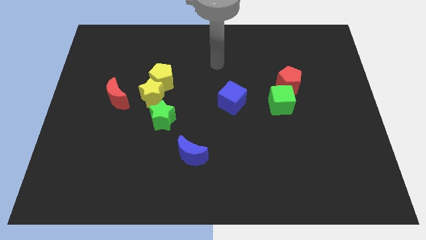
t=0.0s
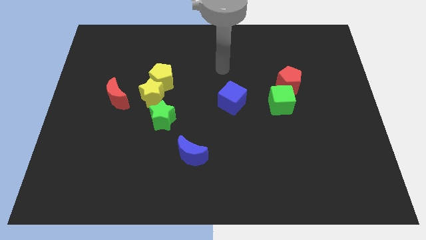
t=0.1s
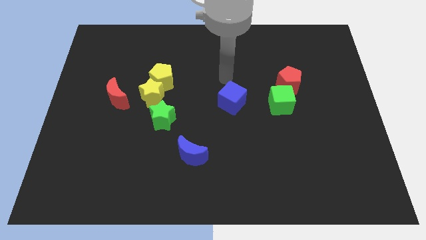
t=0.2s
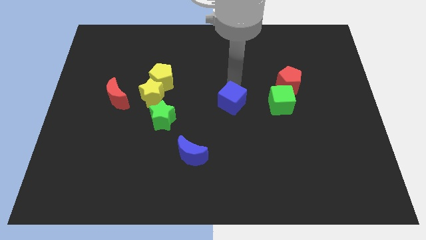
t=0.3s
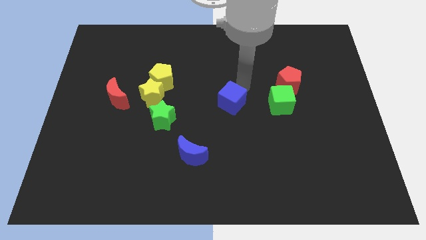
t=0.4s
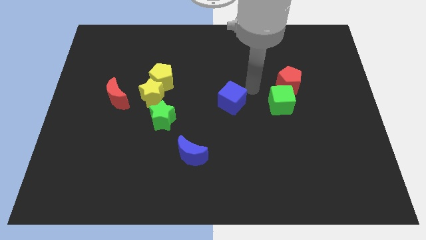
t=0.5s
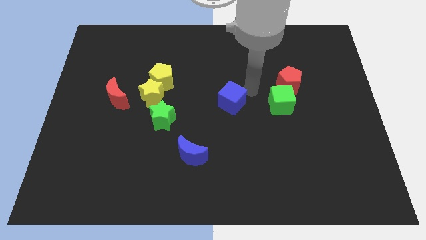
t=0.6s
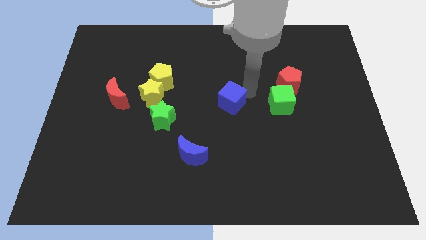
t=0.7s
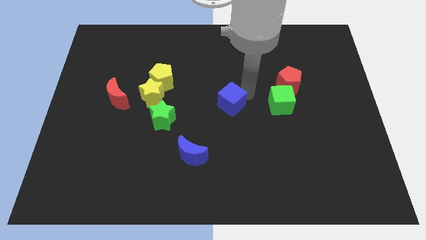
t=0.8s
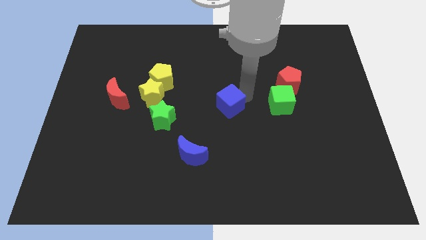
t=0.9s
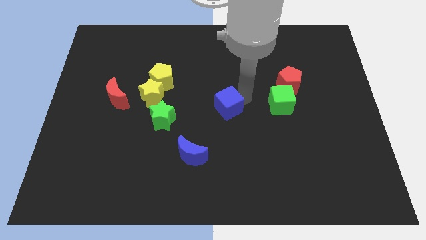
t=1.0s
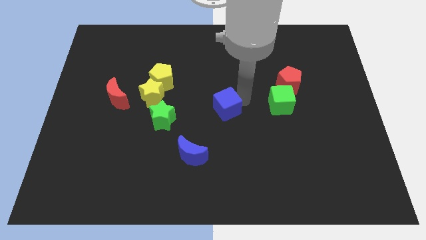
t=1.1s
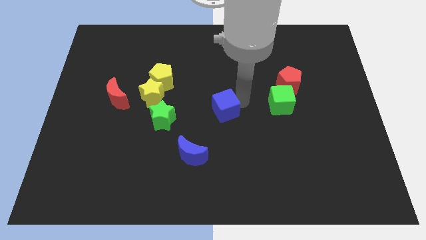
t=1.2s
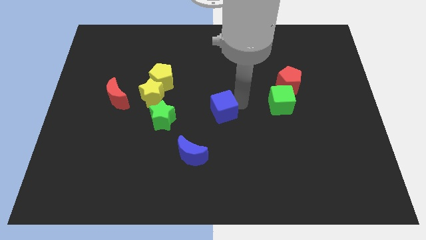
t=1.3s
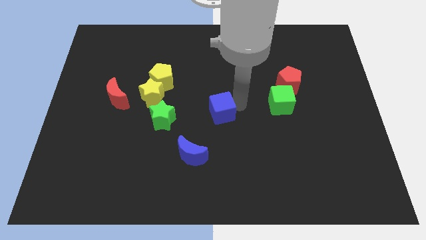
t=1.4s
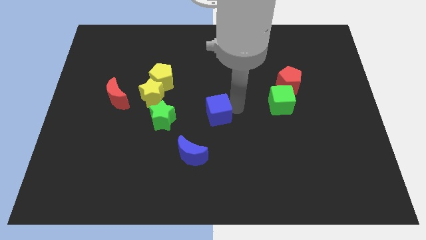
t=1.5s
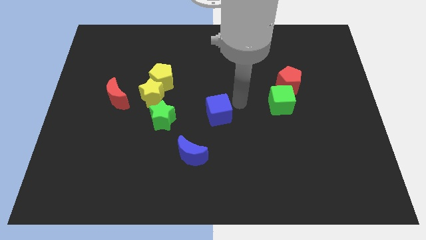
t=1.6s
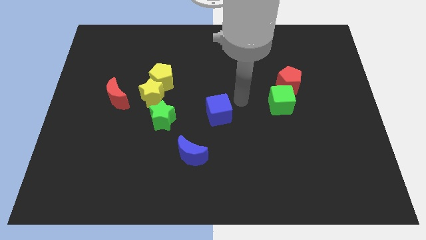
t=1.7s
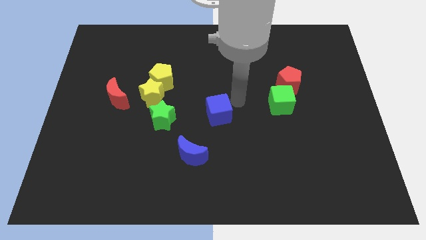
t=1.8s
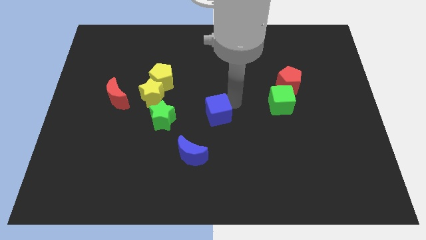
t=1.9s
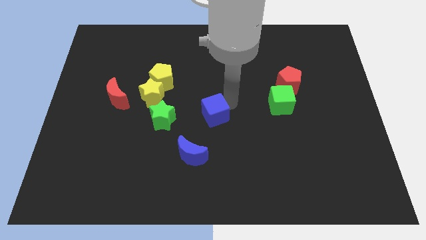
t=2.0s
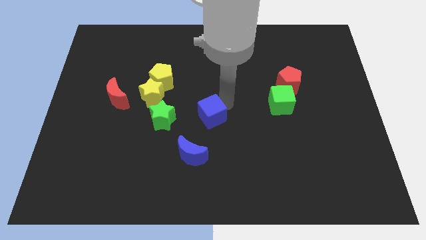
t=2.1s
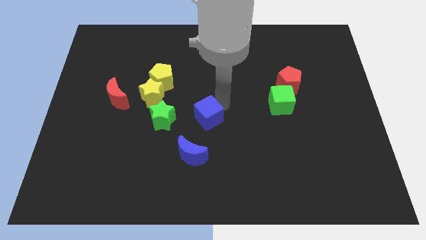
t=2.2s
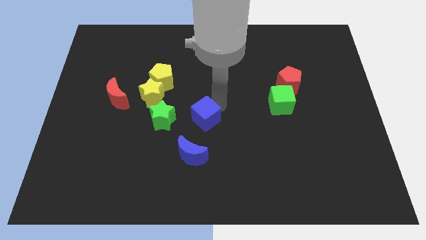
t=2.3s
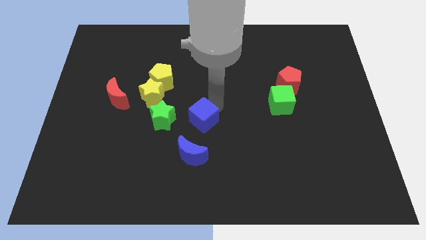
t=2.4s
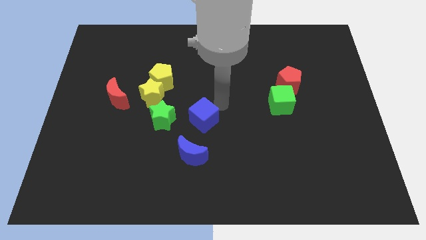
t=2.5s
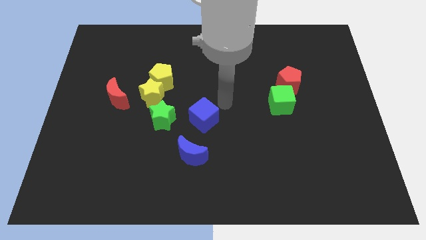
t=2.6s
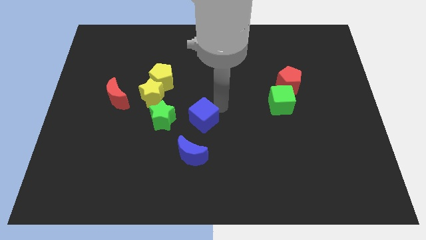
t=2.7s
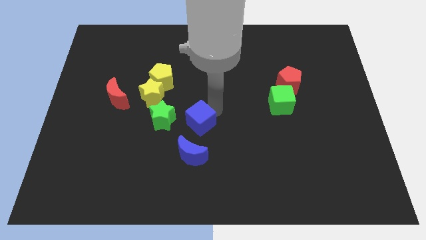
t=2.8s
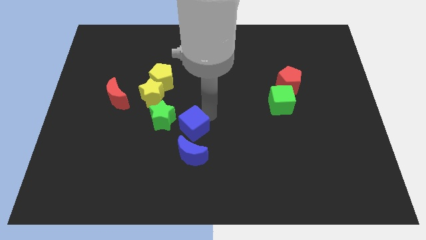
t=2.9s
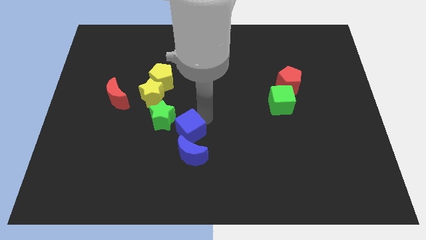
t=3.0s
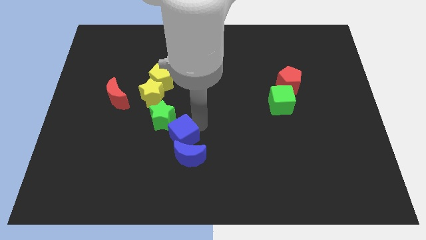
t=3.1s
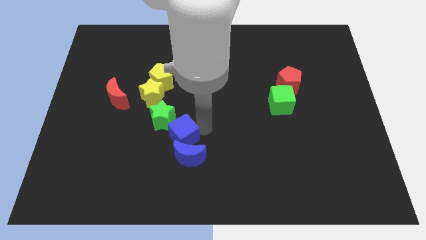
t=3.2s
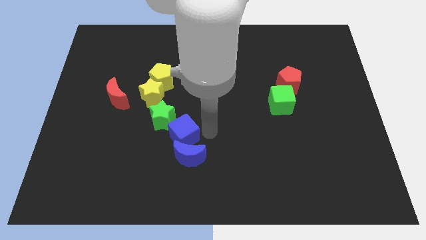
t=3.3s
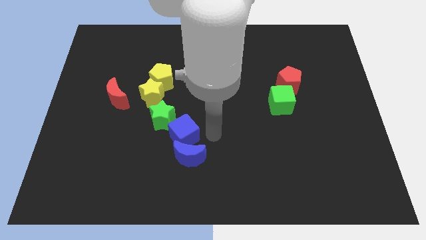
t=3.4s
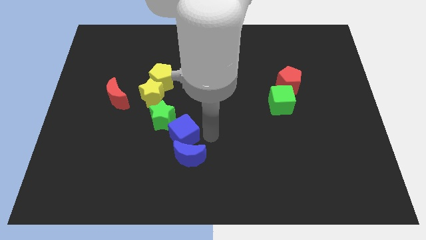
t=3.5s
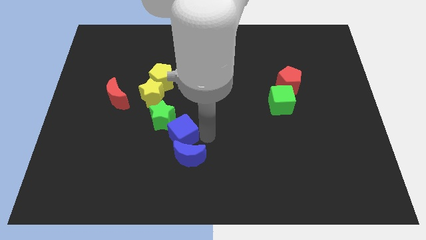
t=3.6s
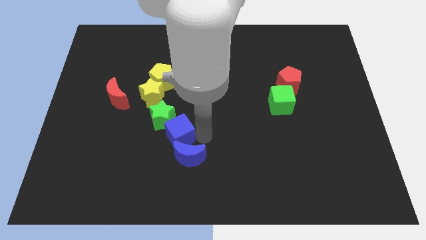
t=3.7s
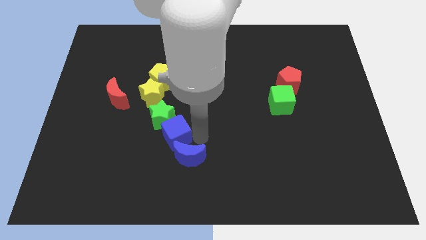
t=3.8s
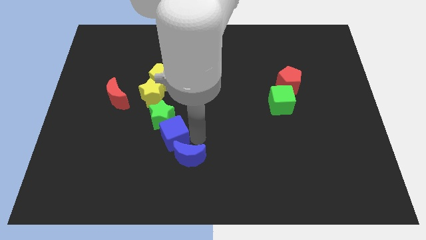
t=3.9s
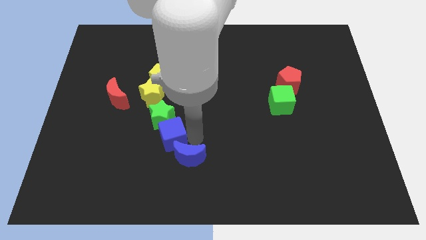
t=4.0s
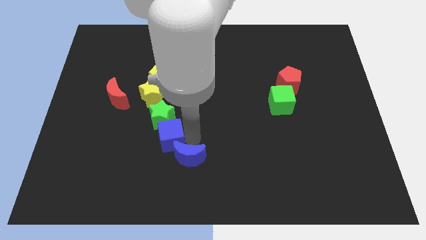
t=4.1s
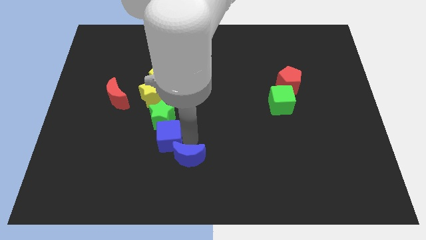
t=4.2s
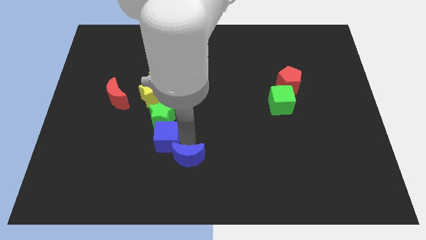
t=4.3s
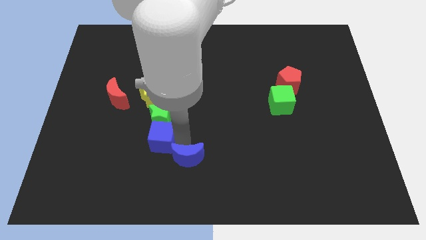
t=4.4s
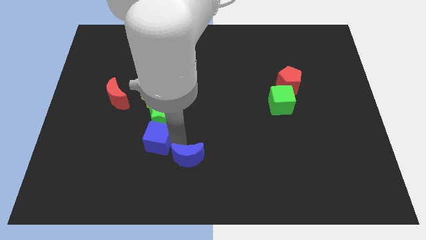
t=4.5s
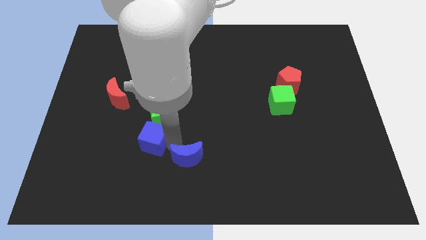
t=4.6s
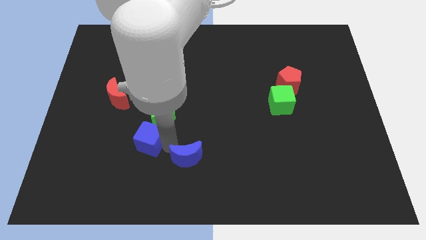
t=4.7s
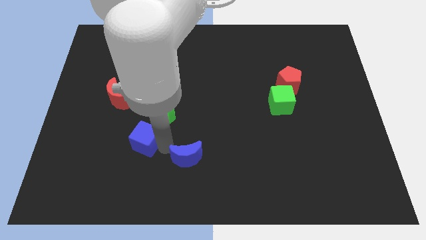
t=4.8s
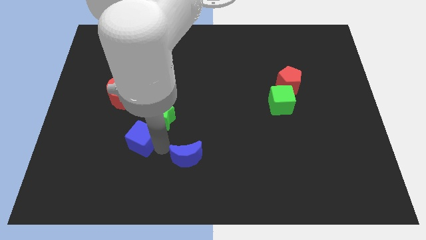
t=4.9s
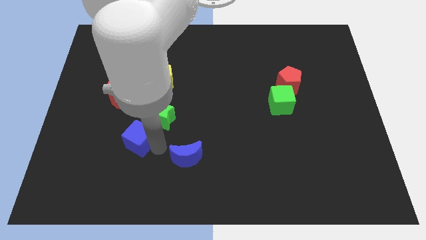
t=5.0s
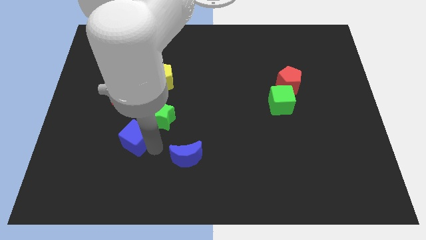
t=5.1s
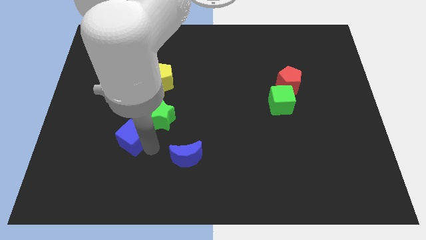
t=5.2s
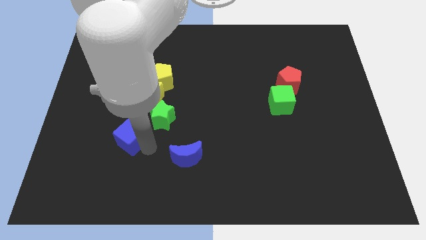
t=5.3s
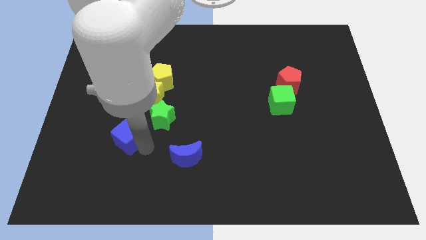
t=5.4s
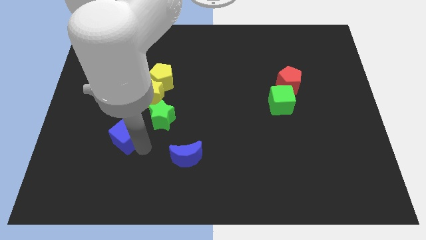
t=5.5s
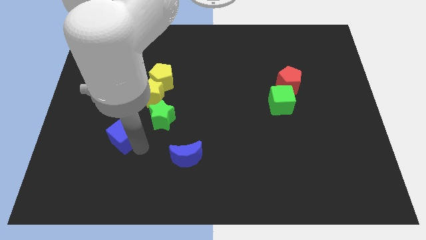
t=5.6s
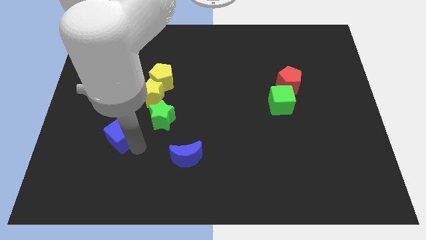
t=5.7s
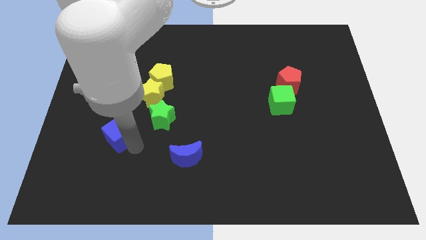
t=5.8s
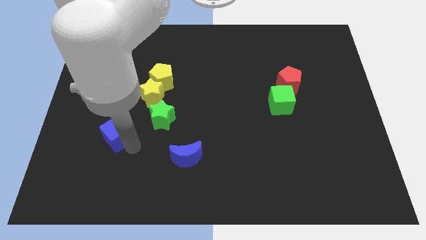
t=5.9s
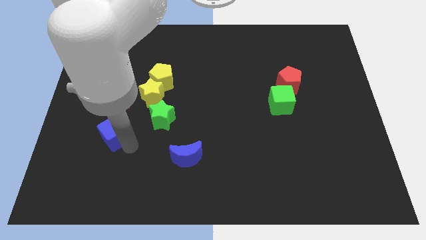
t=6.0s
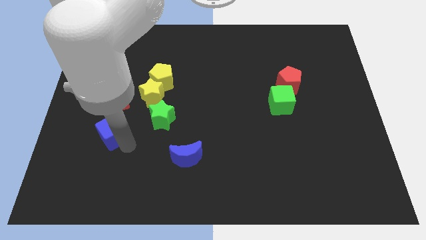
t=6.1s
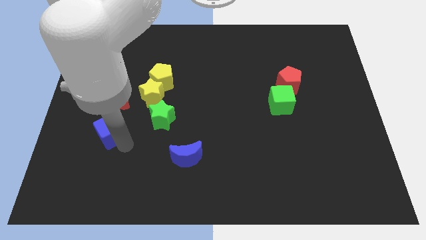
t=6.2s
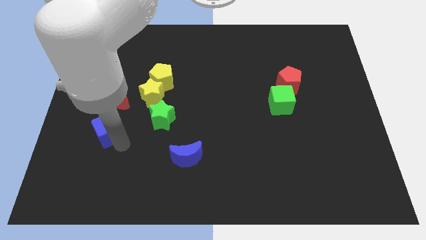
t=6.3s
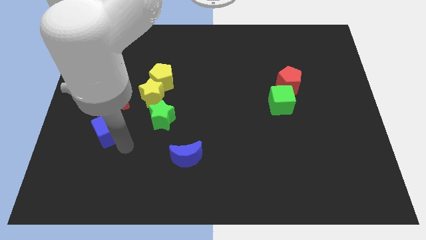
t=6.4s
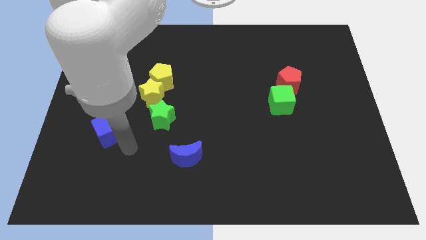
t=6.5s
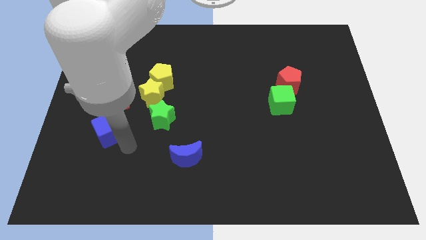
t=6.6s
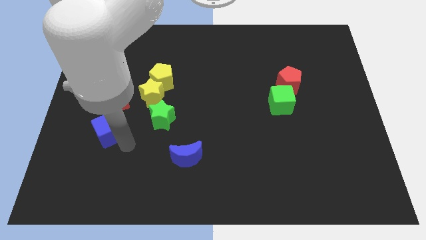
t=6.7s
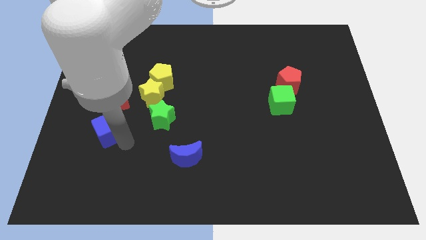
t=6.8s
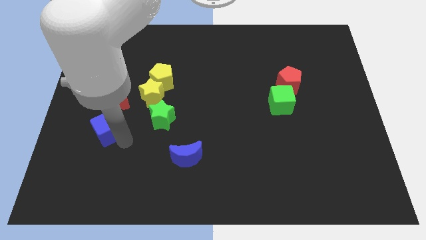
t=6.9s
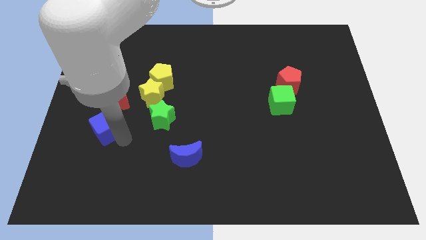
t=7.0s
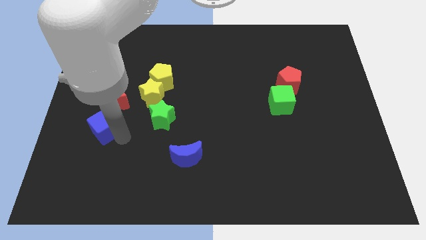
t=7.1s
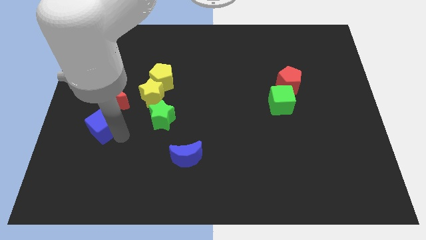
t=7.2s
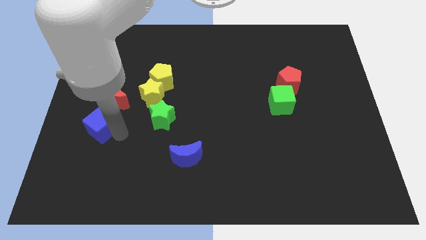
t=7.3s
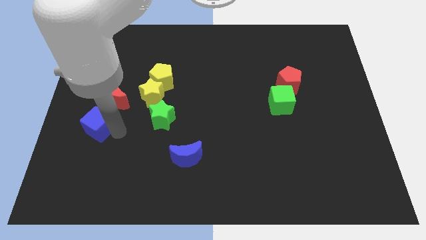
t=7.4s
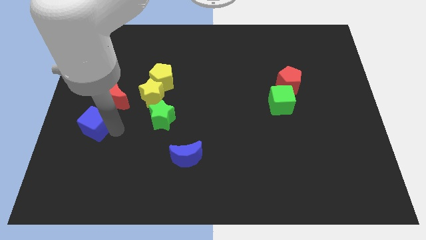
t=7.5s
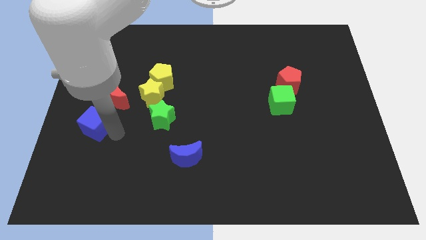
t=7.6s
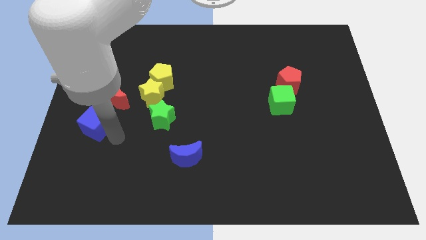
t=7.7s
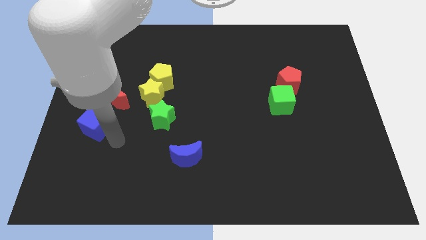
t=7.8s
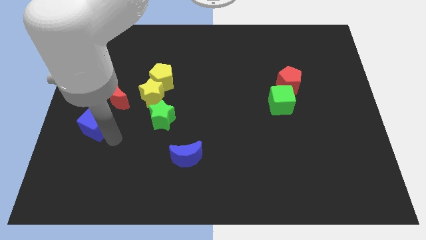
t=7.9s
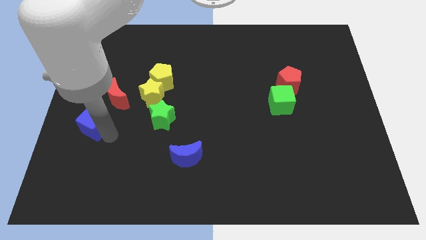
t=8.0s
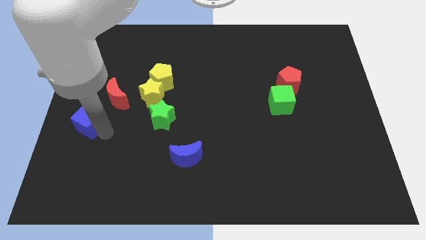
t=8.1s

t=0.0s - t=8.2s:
put the blue cube to the left side
